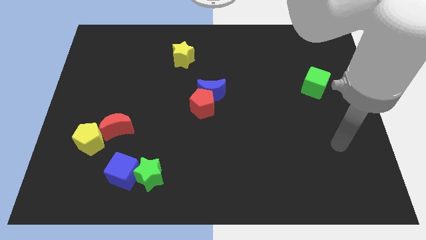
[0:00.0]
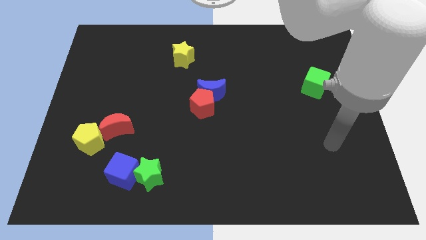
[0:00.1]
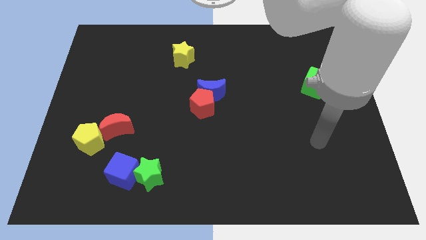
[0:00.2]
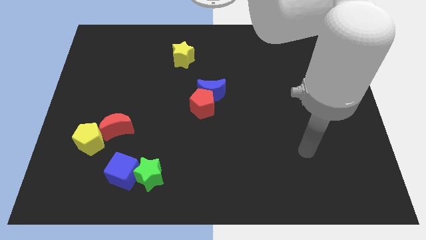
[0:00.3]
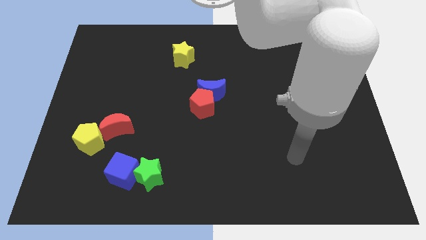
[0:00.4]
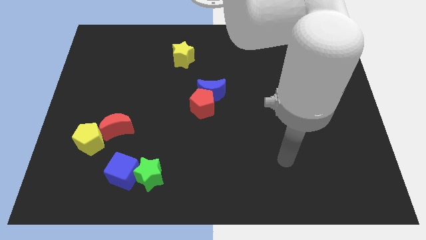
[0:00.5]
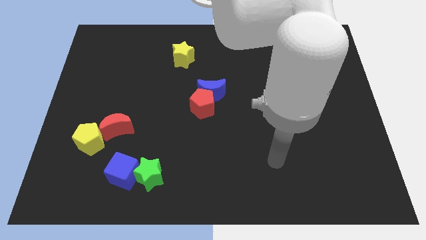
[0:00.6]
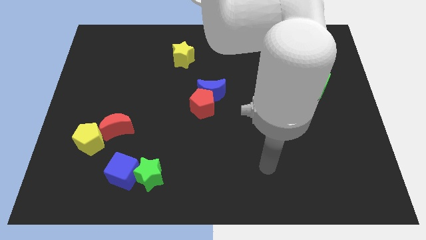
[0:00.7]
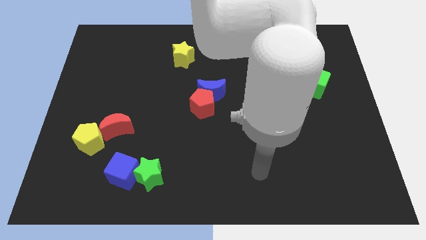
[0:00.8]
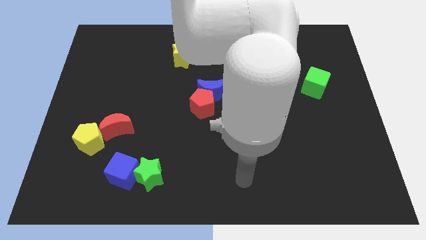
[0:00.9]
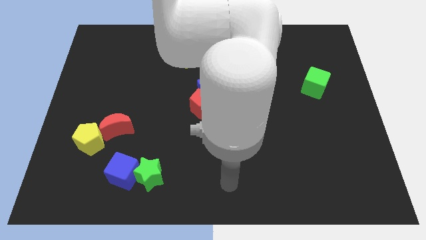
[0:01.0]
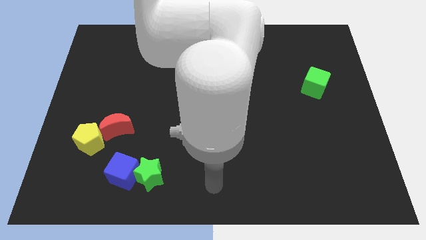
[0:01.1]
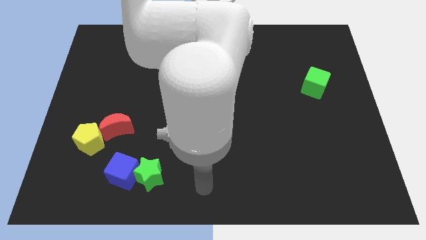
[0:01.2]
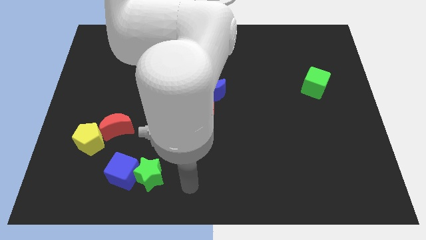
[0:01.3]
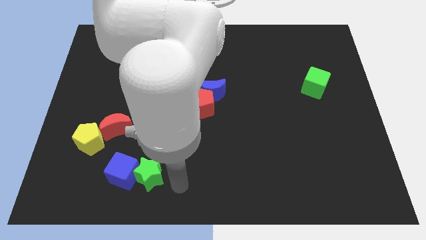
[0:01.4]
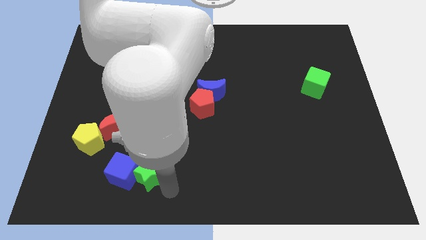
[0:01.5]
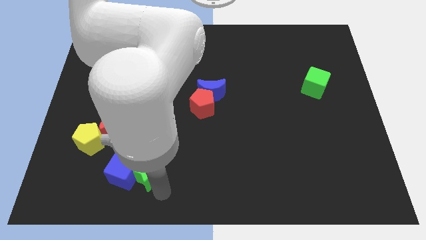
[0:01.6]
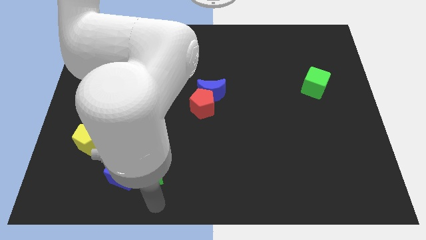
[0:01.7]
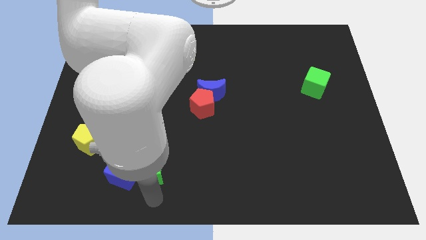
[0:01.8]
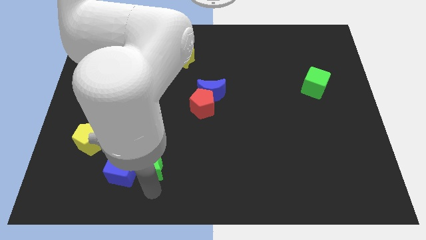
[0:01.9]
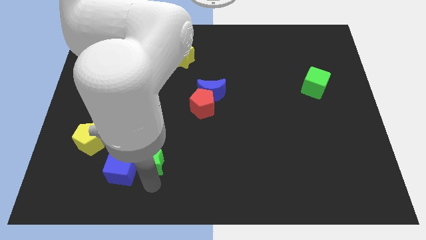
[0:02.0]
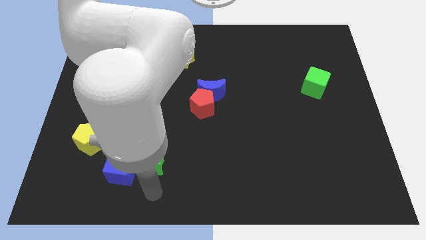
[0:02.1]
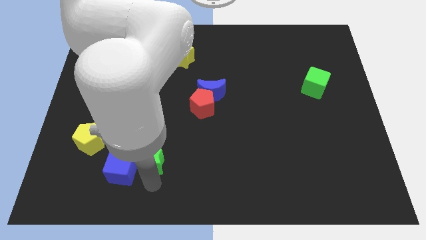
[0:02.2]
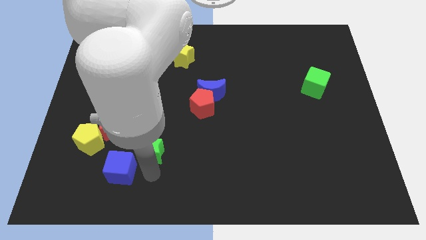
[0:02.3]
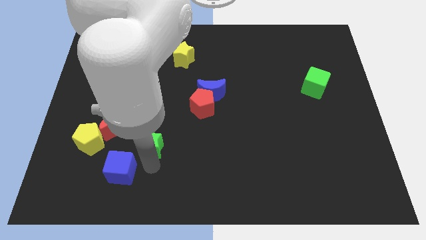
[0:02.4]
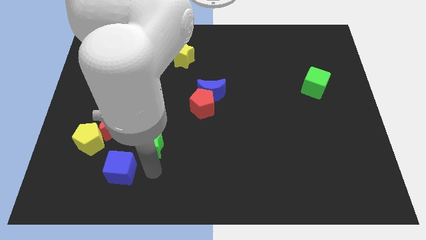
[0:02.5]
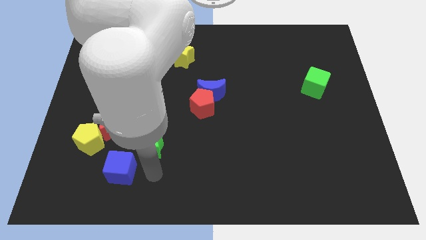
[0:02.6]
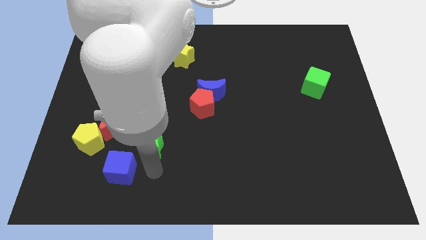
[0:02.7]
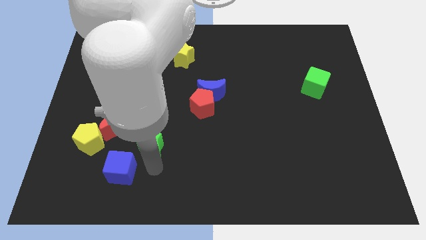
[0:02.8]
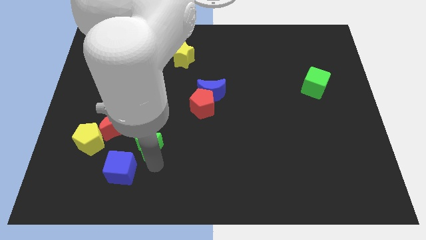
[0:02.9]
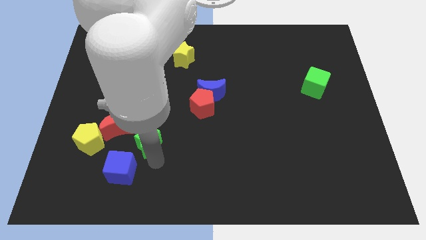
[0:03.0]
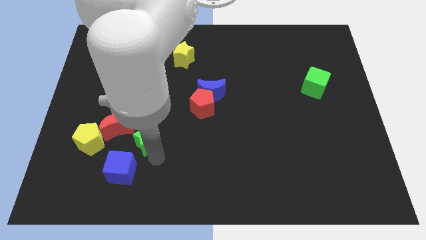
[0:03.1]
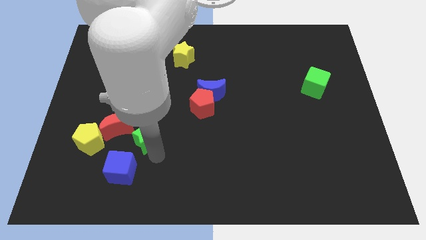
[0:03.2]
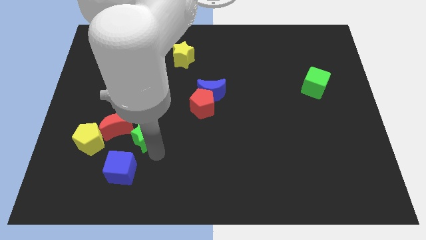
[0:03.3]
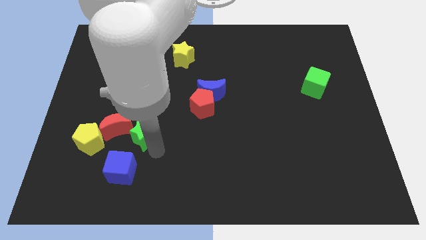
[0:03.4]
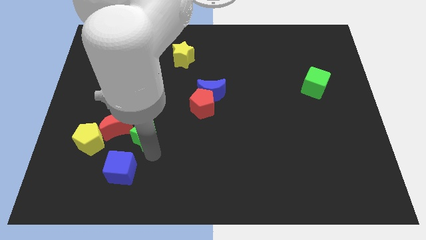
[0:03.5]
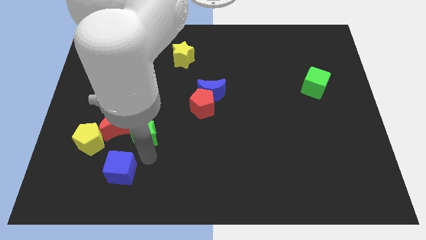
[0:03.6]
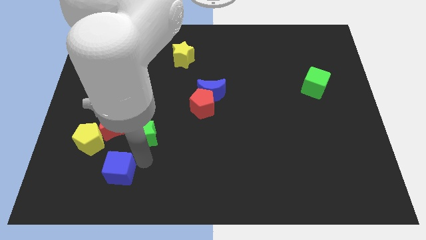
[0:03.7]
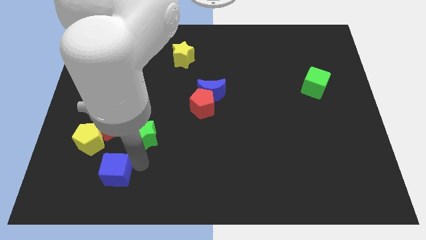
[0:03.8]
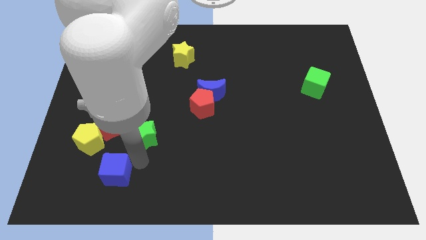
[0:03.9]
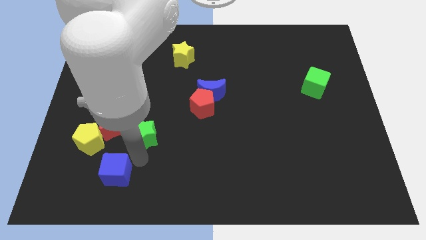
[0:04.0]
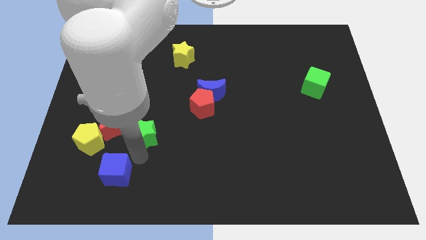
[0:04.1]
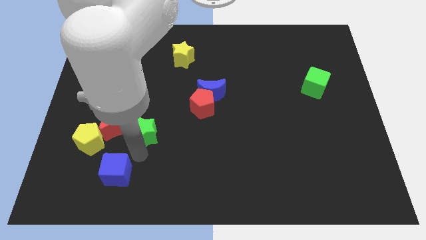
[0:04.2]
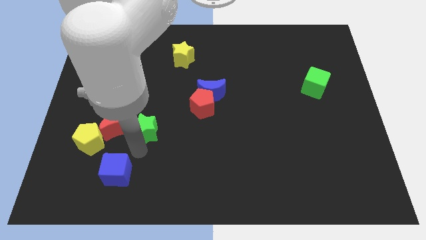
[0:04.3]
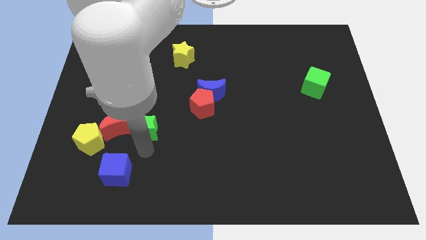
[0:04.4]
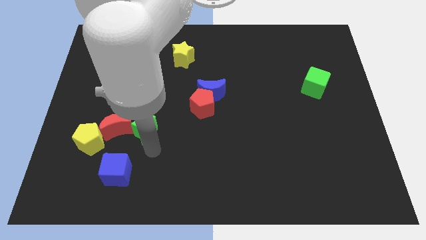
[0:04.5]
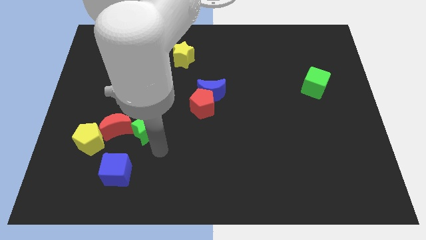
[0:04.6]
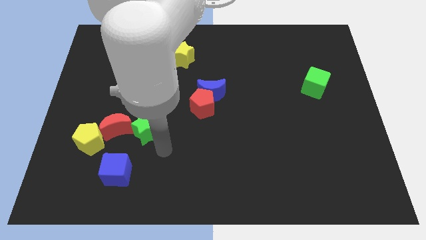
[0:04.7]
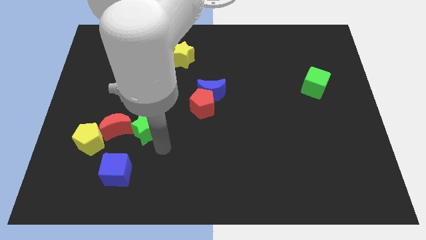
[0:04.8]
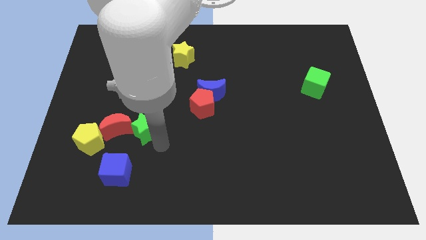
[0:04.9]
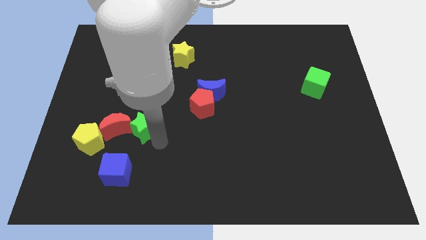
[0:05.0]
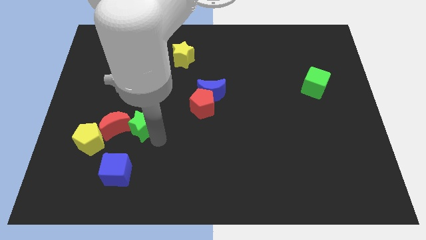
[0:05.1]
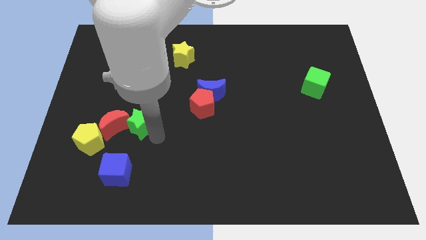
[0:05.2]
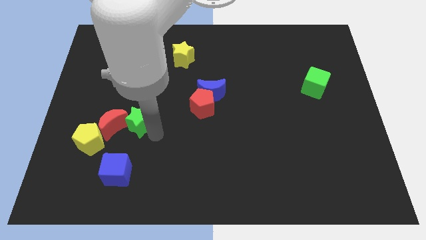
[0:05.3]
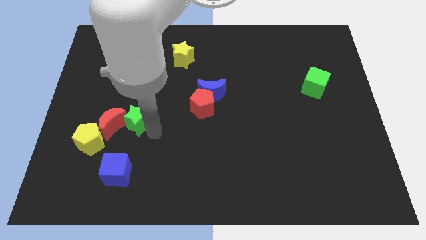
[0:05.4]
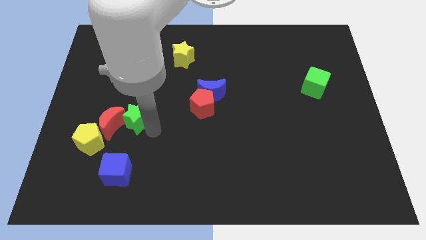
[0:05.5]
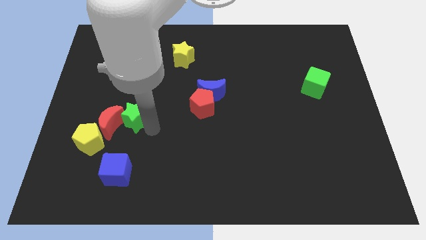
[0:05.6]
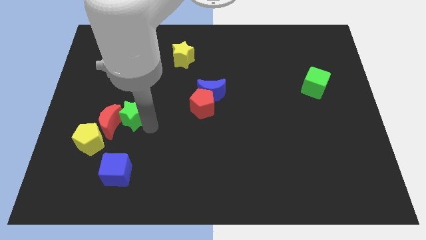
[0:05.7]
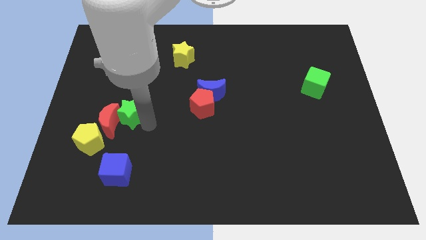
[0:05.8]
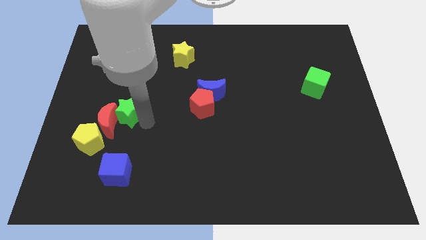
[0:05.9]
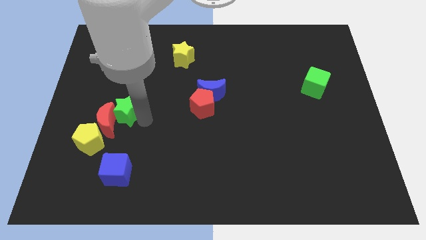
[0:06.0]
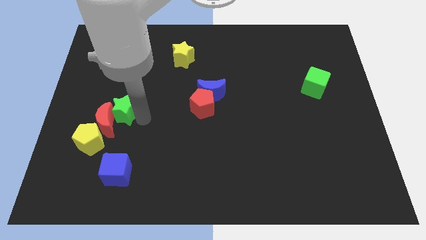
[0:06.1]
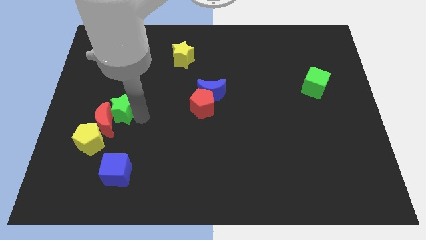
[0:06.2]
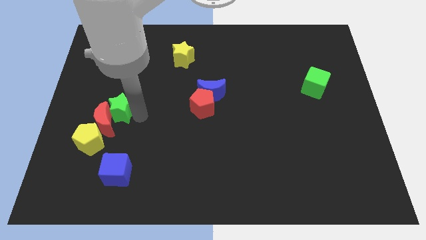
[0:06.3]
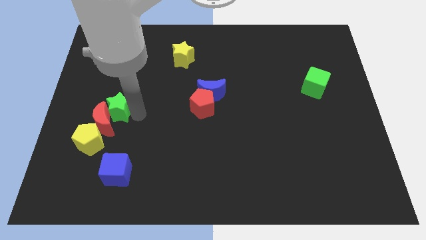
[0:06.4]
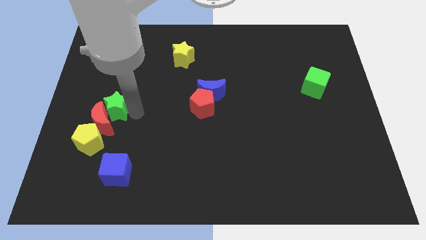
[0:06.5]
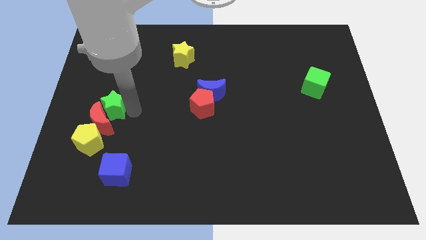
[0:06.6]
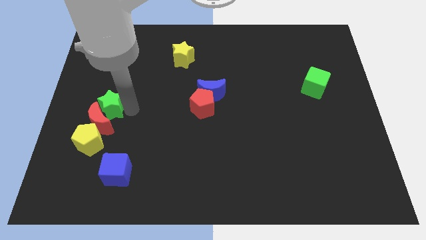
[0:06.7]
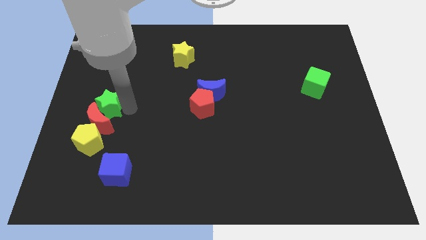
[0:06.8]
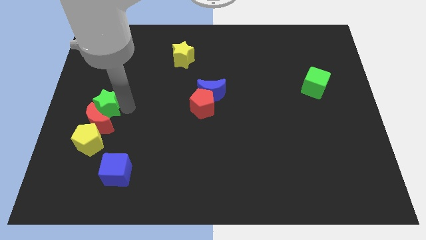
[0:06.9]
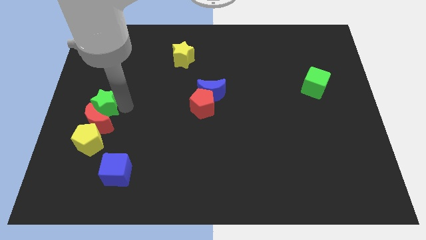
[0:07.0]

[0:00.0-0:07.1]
slide the green star to the center left
